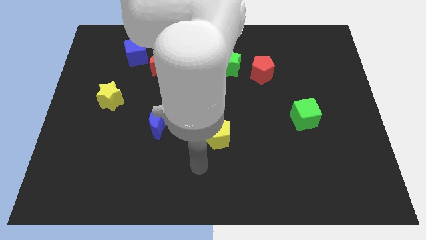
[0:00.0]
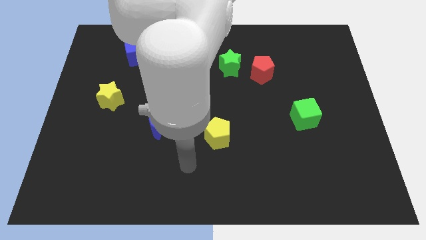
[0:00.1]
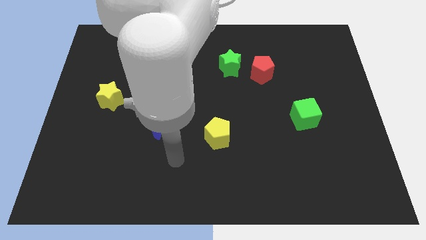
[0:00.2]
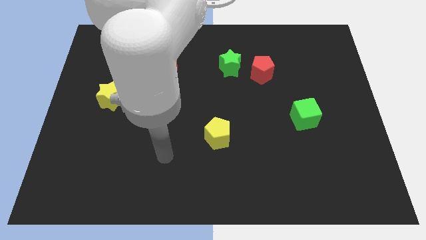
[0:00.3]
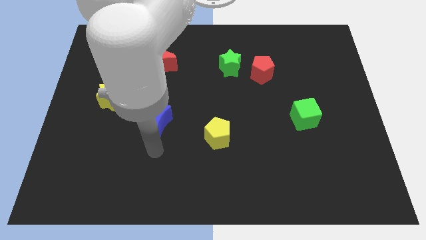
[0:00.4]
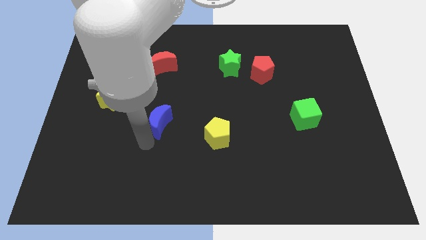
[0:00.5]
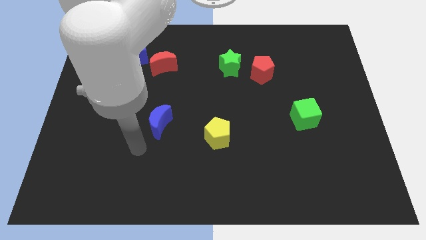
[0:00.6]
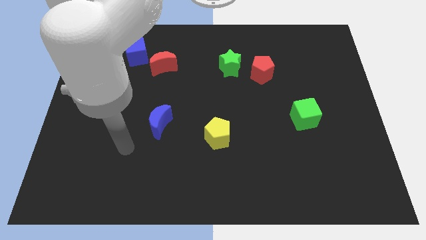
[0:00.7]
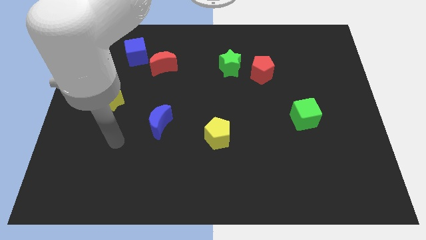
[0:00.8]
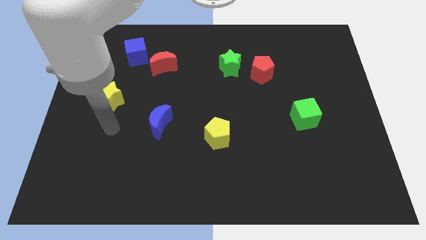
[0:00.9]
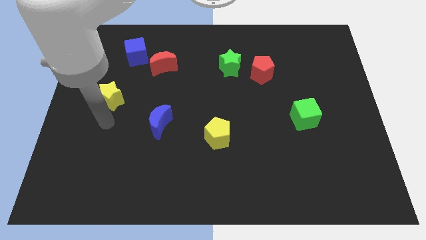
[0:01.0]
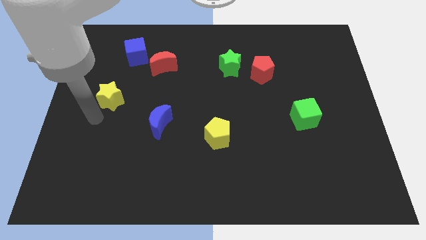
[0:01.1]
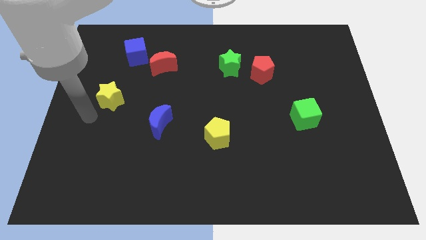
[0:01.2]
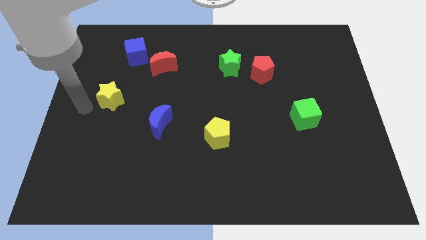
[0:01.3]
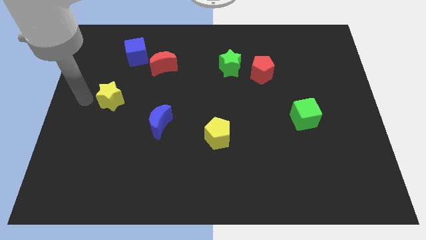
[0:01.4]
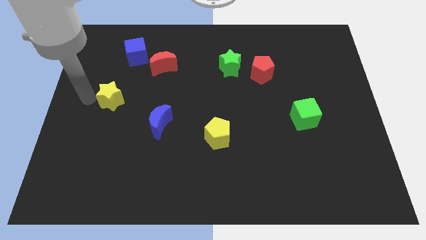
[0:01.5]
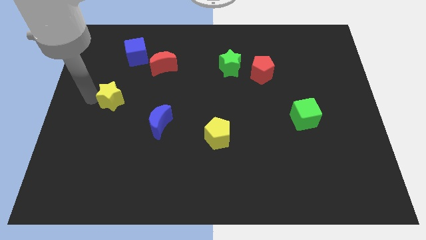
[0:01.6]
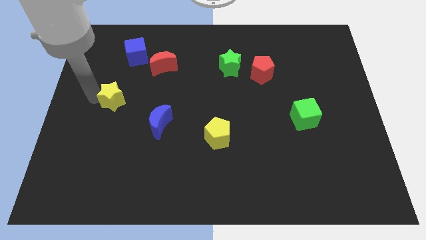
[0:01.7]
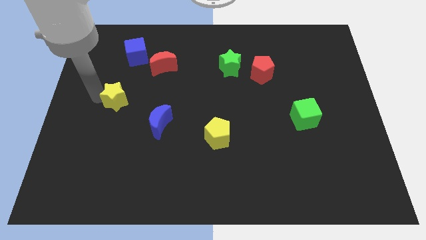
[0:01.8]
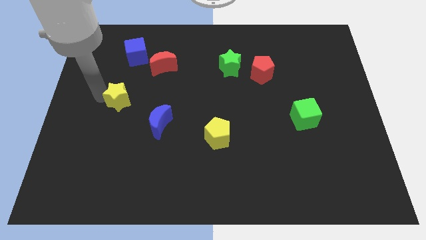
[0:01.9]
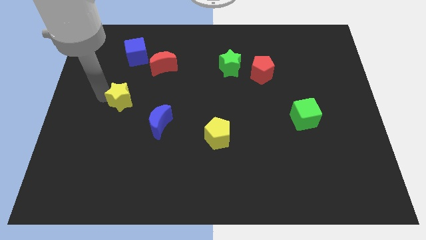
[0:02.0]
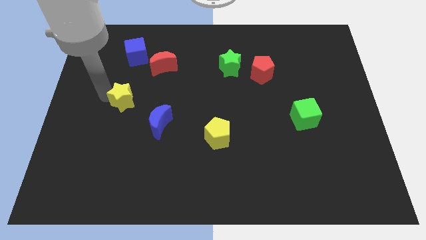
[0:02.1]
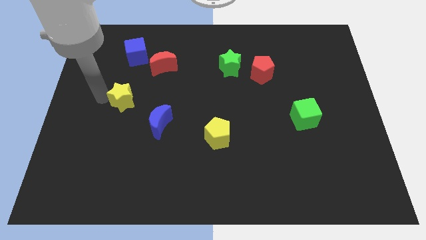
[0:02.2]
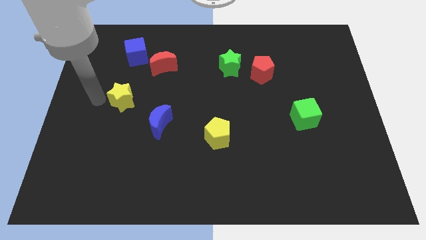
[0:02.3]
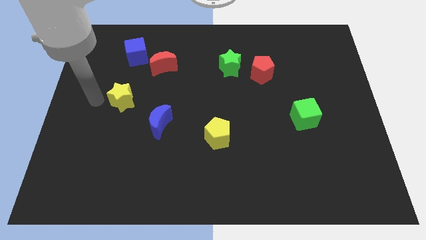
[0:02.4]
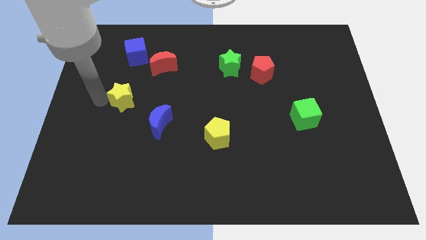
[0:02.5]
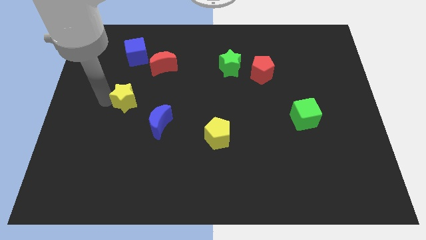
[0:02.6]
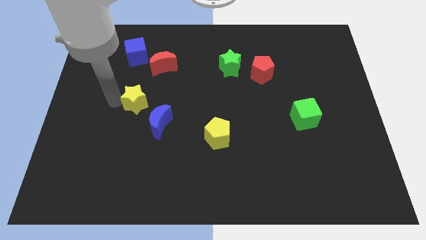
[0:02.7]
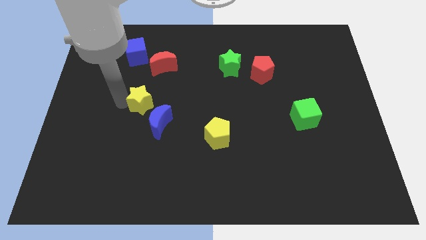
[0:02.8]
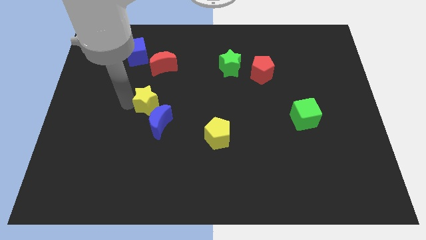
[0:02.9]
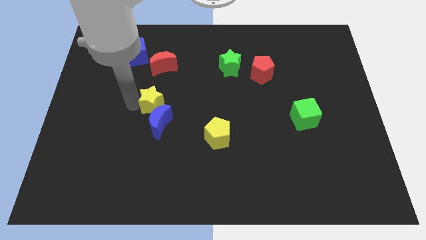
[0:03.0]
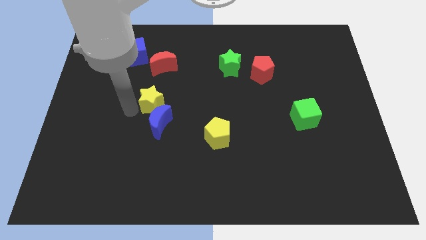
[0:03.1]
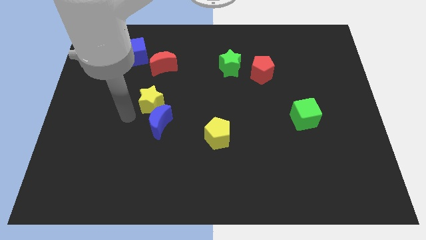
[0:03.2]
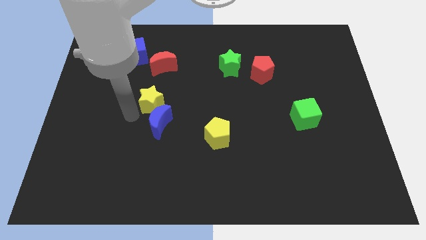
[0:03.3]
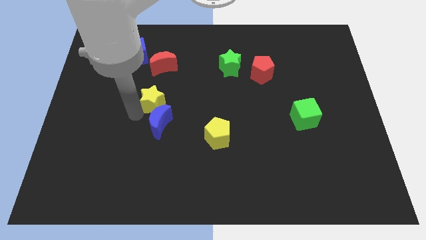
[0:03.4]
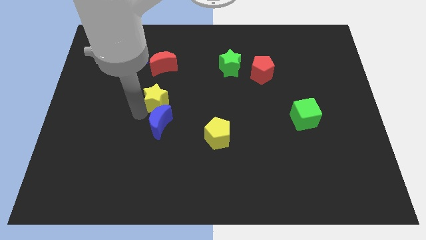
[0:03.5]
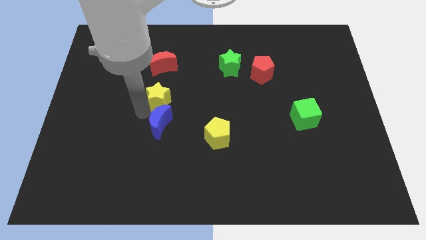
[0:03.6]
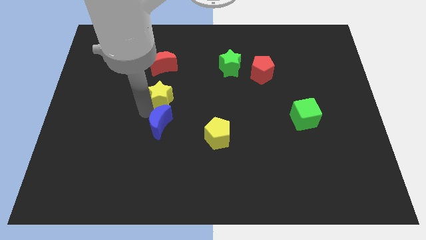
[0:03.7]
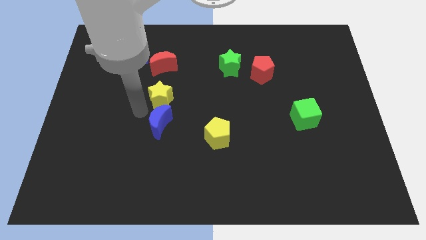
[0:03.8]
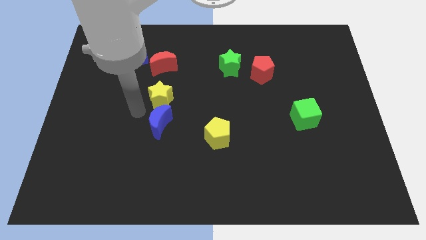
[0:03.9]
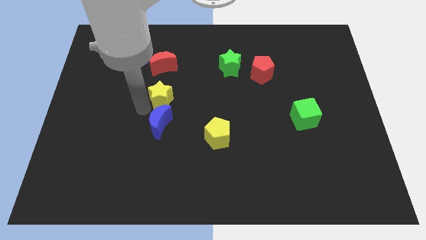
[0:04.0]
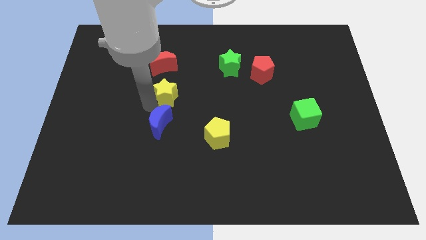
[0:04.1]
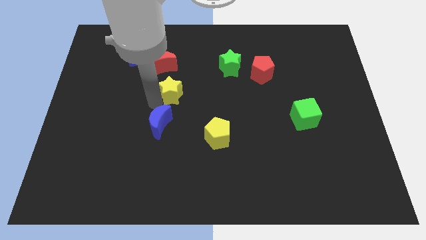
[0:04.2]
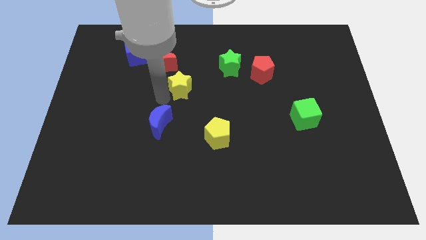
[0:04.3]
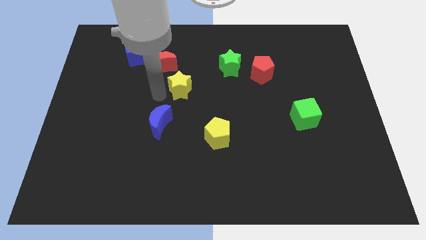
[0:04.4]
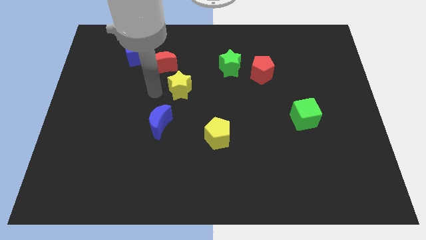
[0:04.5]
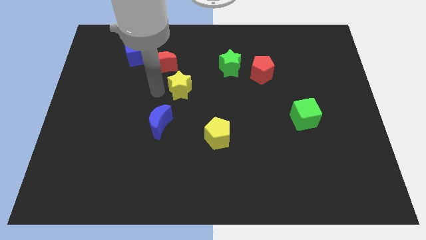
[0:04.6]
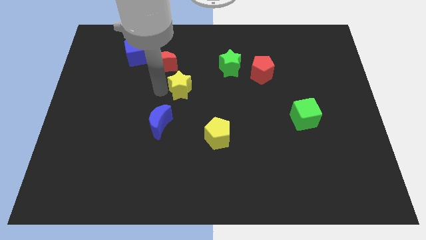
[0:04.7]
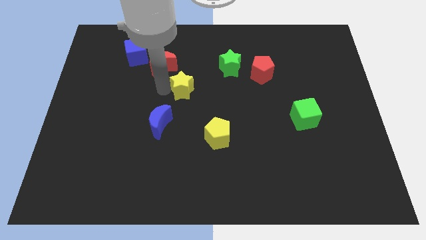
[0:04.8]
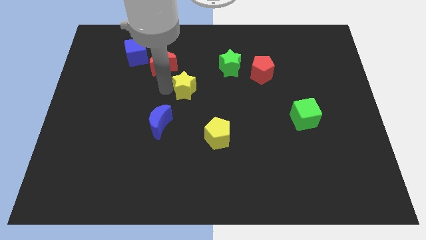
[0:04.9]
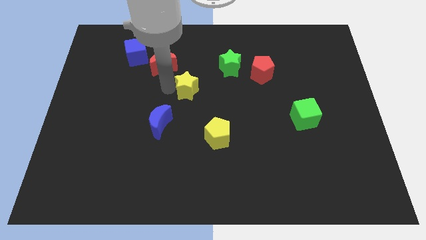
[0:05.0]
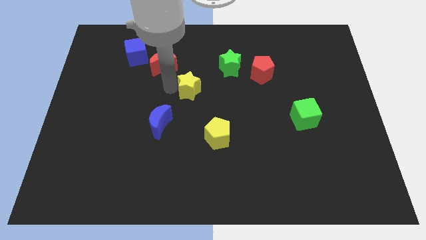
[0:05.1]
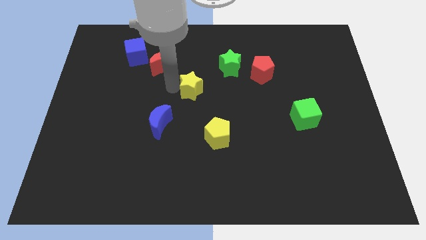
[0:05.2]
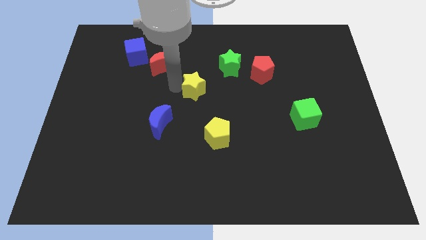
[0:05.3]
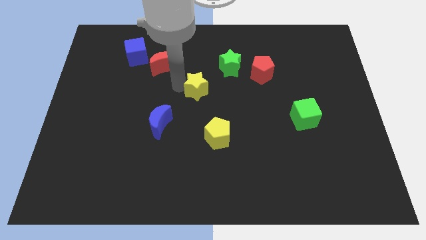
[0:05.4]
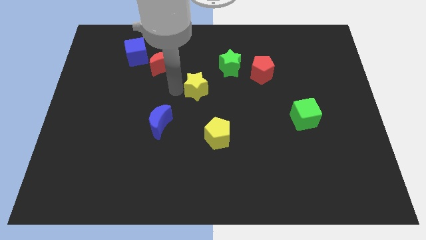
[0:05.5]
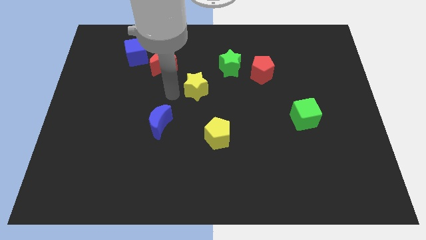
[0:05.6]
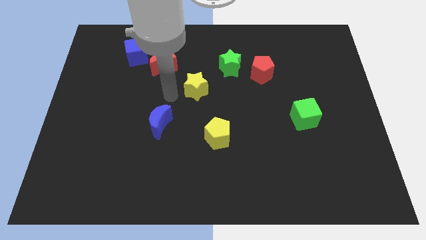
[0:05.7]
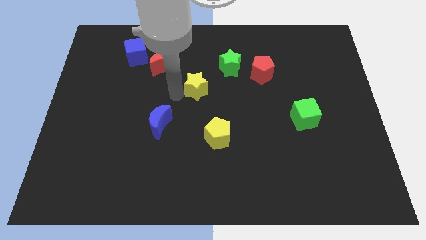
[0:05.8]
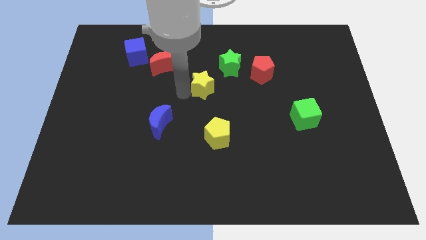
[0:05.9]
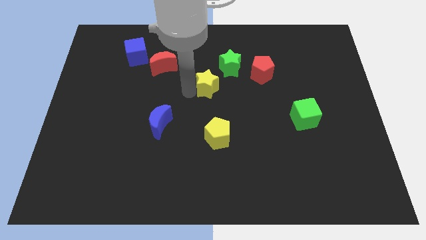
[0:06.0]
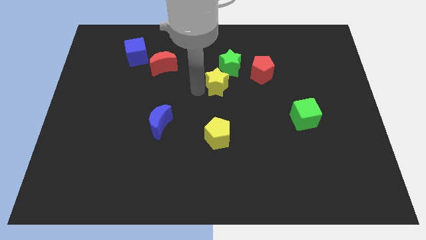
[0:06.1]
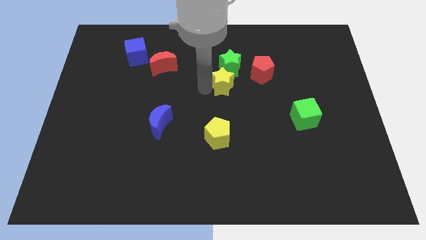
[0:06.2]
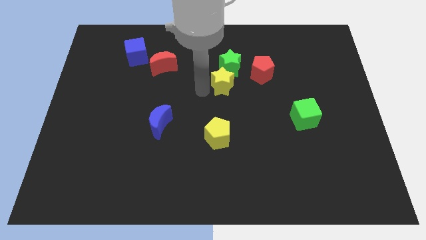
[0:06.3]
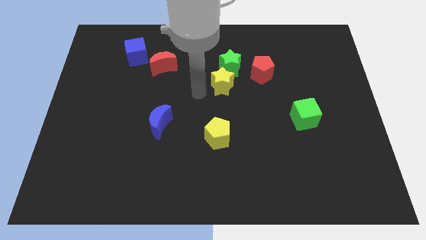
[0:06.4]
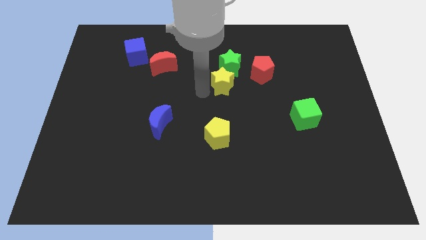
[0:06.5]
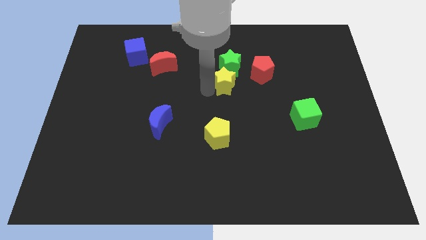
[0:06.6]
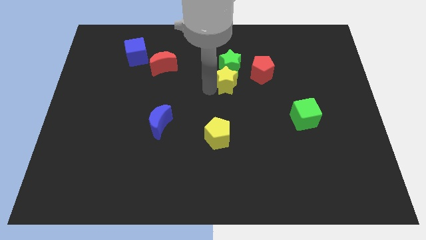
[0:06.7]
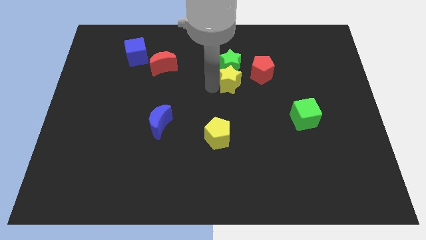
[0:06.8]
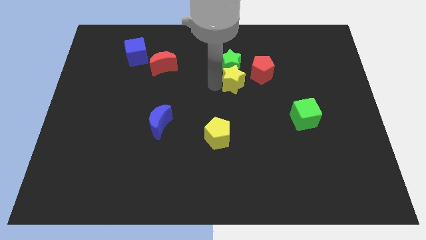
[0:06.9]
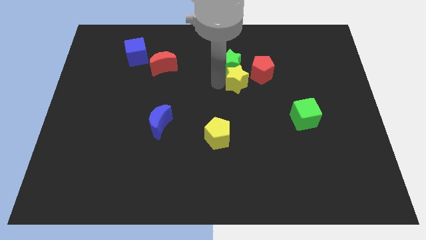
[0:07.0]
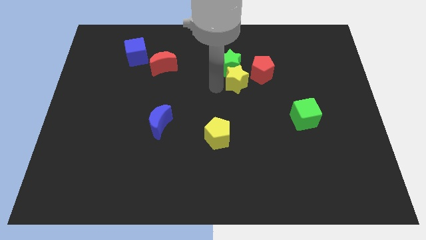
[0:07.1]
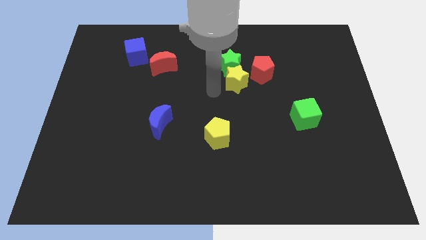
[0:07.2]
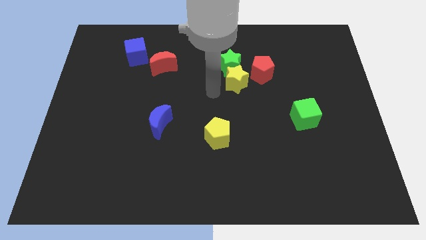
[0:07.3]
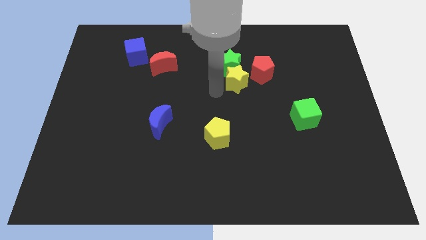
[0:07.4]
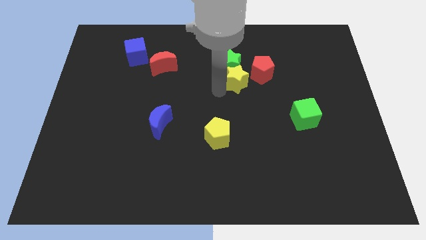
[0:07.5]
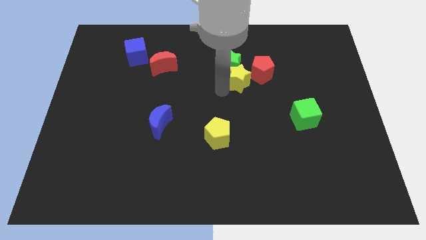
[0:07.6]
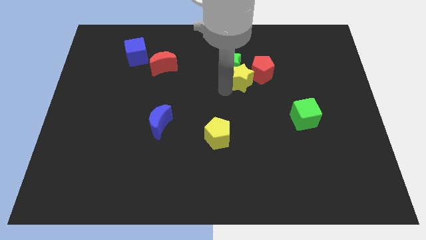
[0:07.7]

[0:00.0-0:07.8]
move the yellow star close to the red pentagon

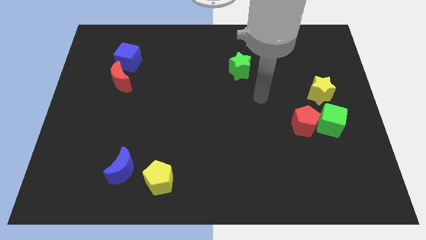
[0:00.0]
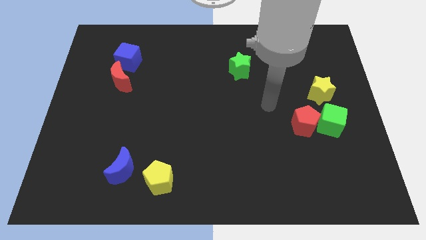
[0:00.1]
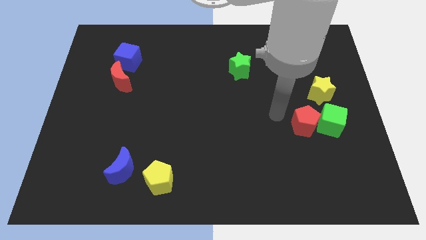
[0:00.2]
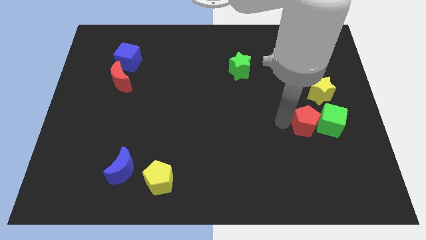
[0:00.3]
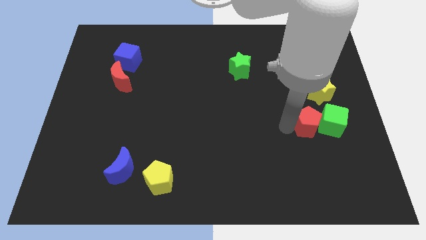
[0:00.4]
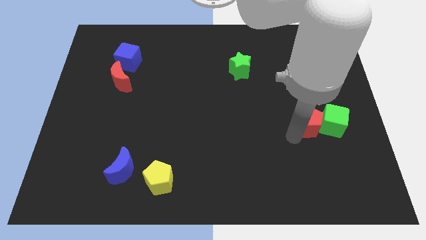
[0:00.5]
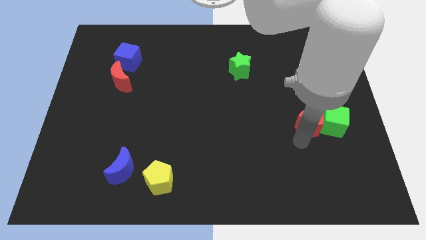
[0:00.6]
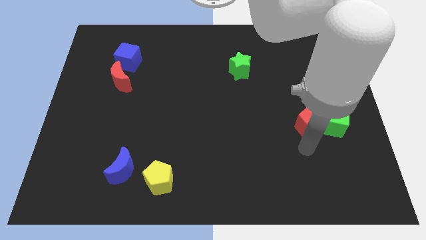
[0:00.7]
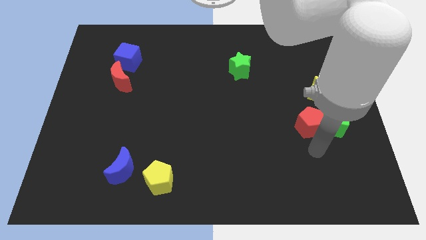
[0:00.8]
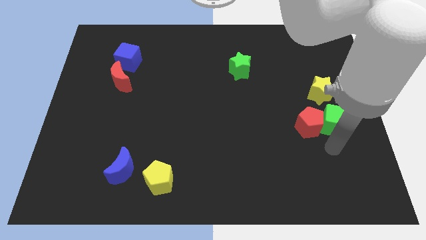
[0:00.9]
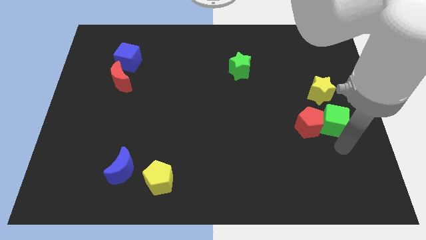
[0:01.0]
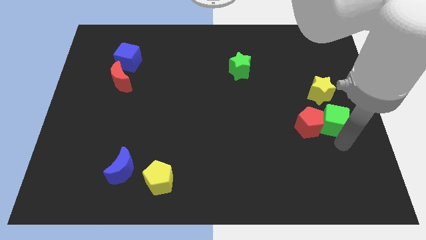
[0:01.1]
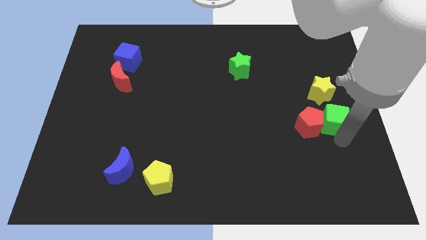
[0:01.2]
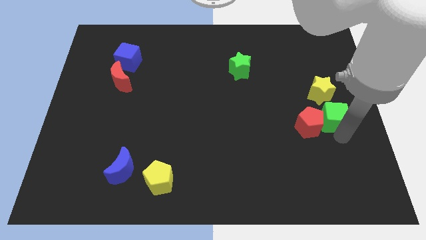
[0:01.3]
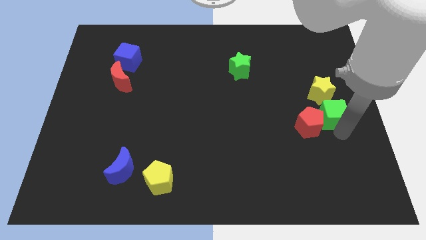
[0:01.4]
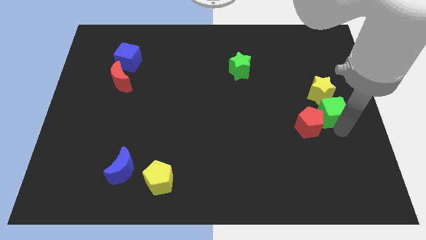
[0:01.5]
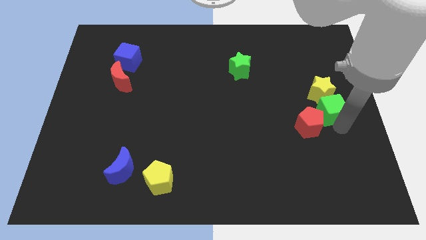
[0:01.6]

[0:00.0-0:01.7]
slide the green cube to the yellow star
